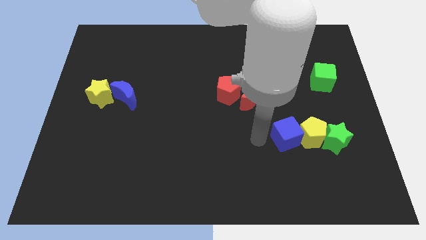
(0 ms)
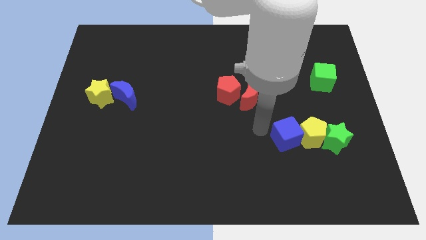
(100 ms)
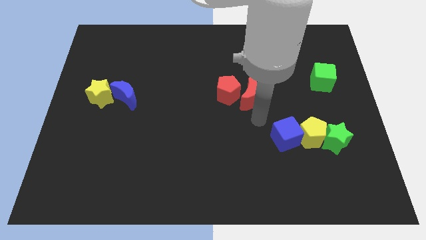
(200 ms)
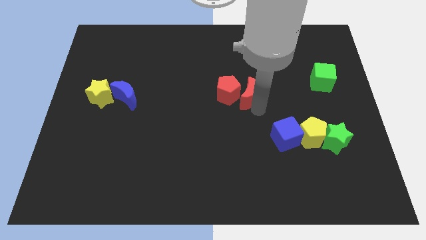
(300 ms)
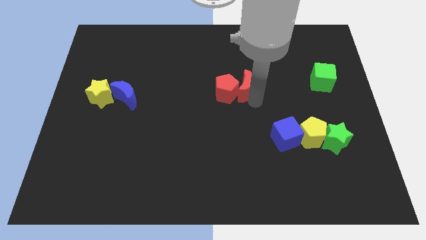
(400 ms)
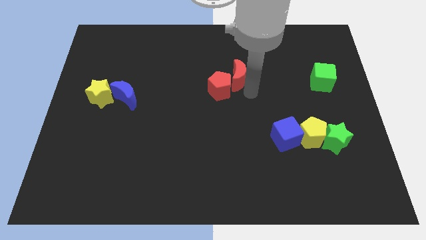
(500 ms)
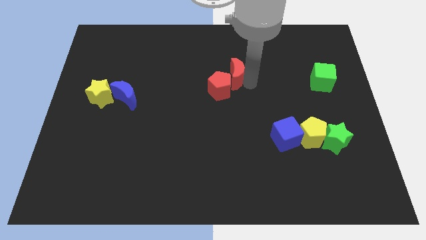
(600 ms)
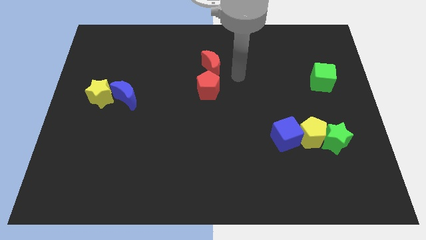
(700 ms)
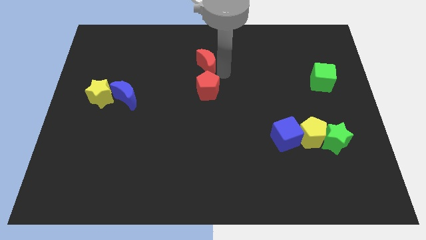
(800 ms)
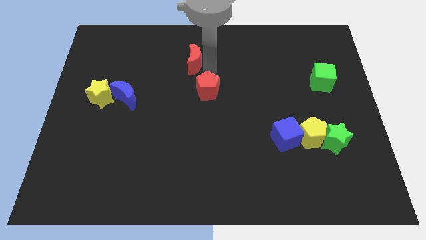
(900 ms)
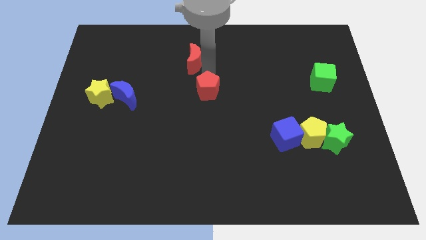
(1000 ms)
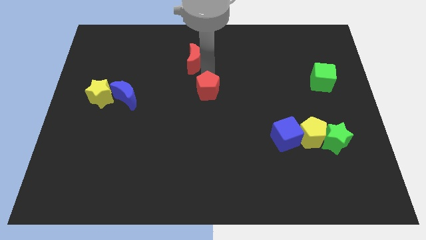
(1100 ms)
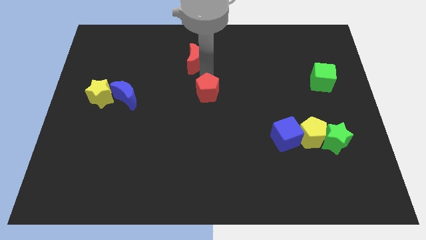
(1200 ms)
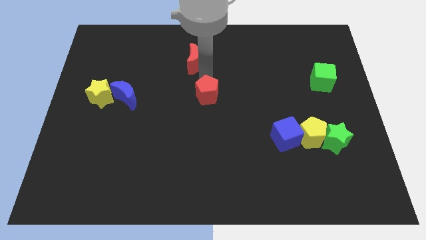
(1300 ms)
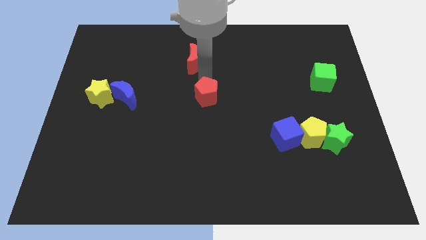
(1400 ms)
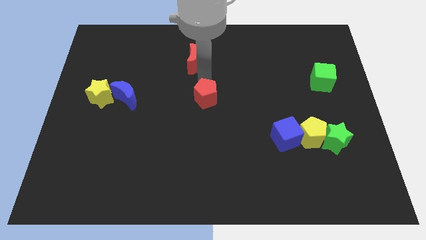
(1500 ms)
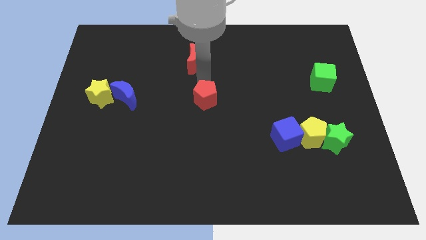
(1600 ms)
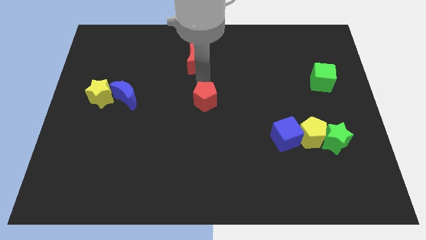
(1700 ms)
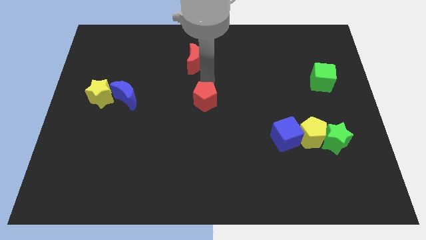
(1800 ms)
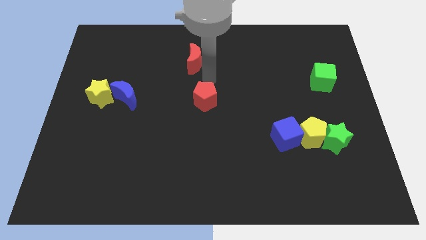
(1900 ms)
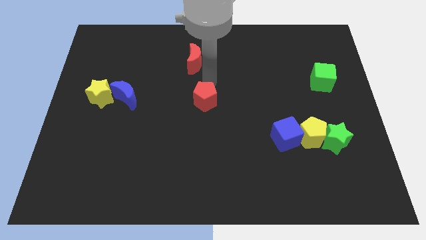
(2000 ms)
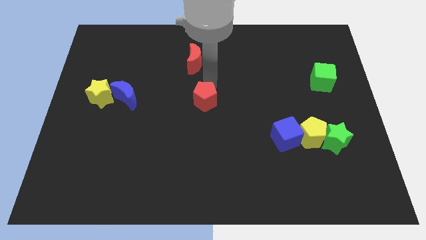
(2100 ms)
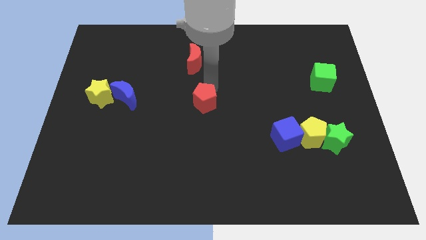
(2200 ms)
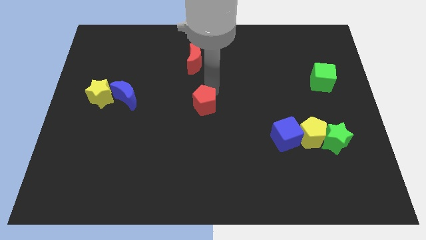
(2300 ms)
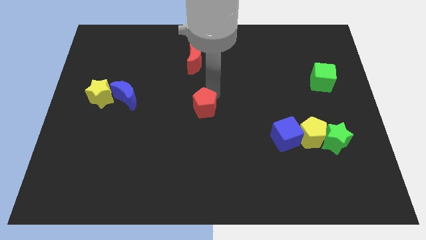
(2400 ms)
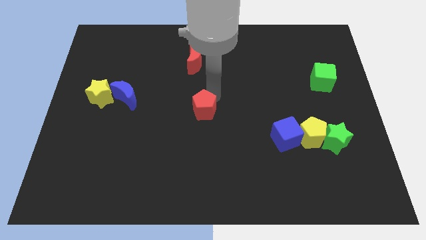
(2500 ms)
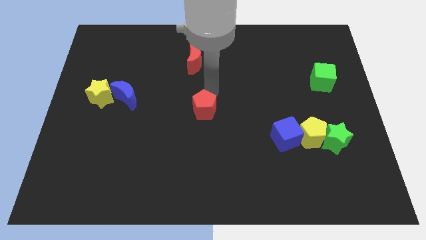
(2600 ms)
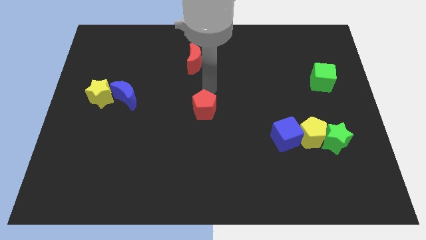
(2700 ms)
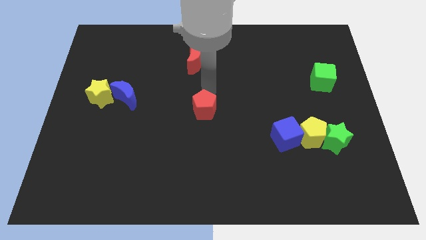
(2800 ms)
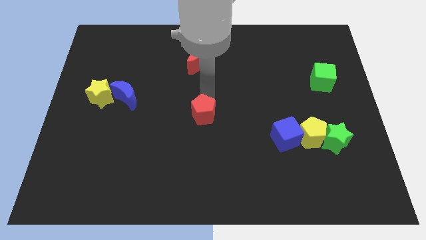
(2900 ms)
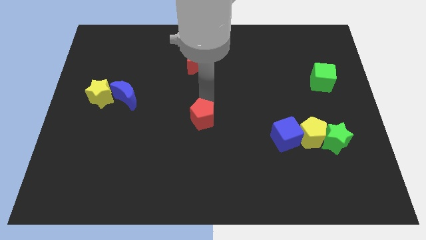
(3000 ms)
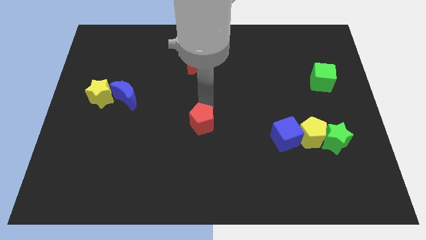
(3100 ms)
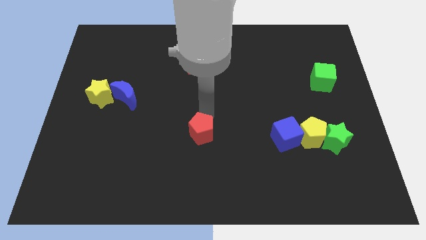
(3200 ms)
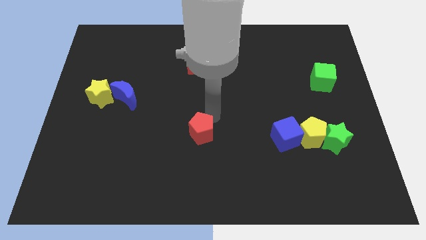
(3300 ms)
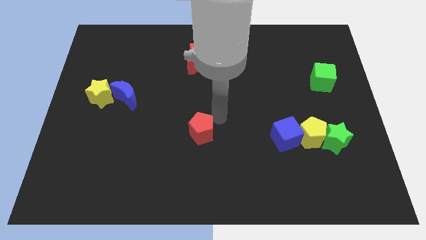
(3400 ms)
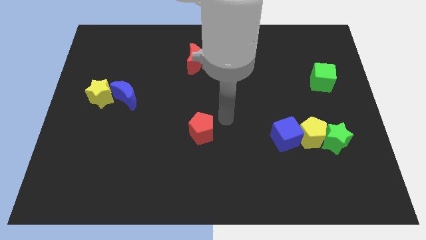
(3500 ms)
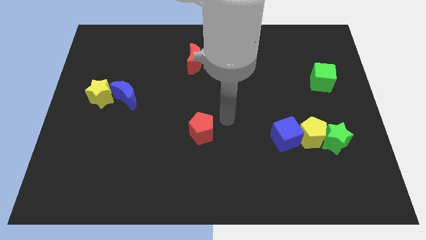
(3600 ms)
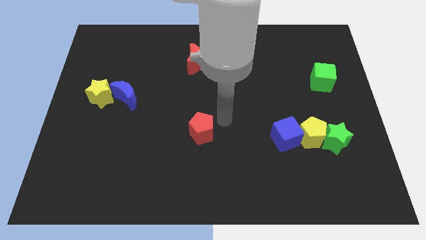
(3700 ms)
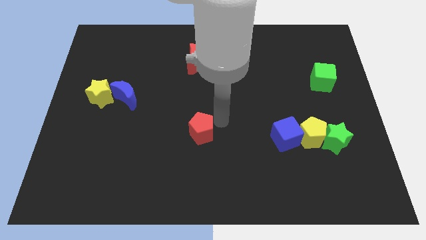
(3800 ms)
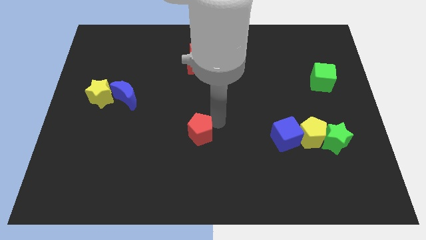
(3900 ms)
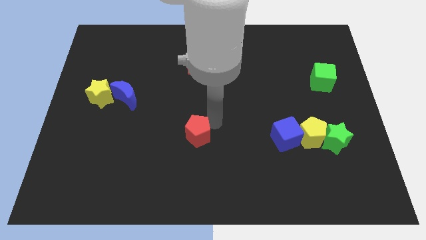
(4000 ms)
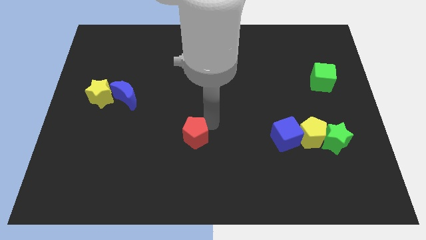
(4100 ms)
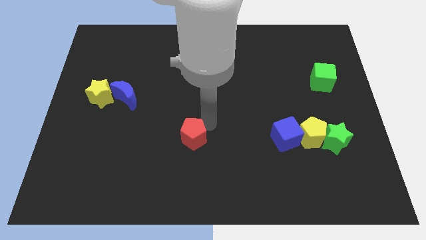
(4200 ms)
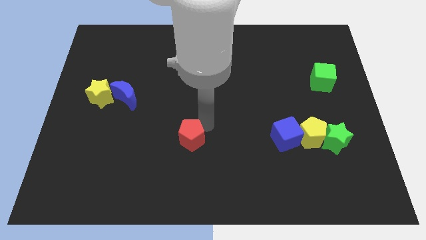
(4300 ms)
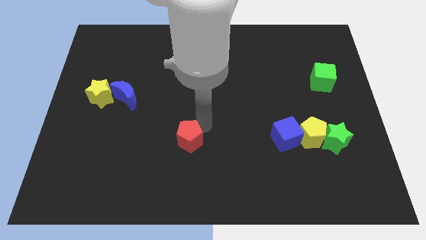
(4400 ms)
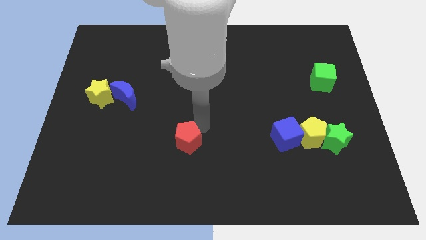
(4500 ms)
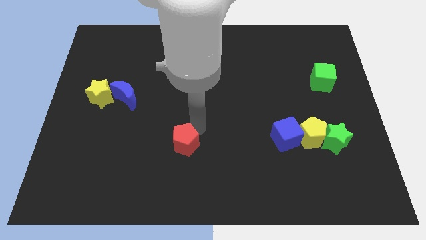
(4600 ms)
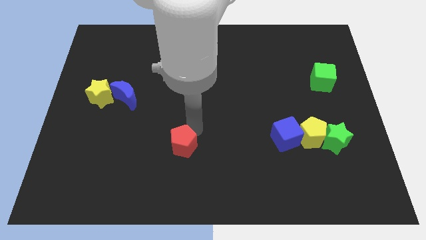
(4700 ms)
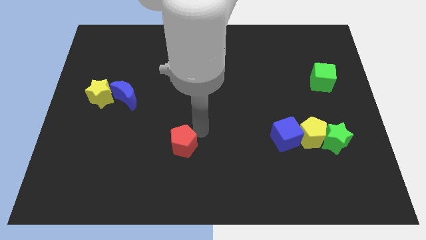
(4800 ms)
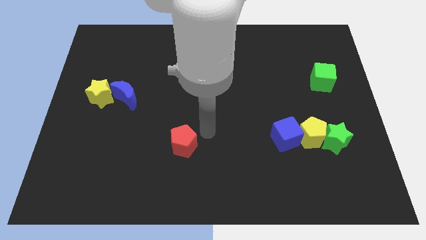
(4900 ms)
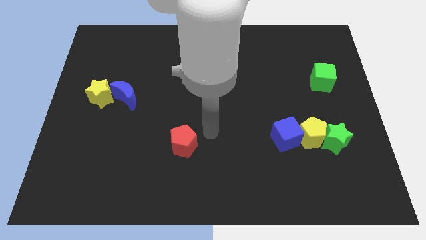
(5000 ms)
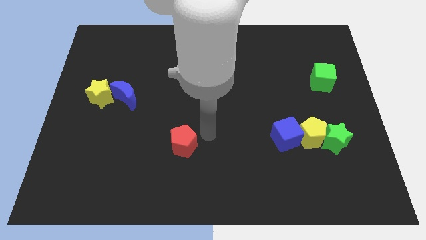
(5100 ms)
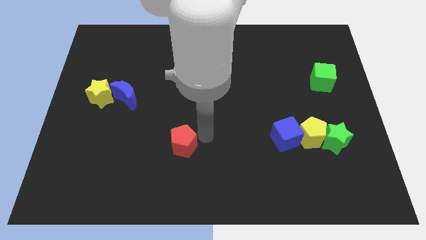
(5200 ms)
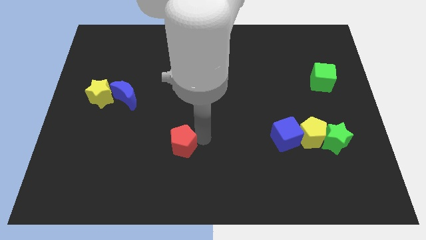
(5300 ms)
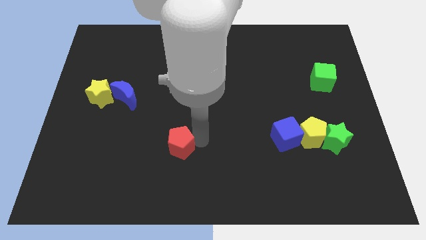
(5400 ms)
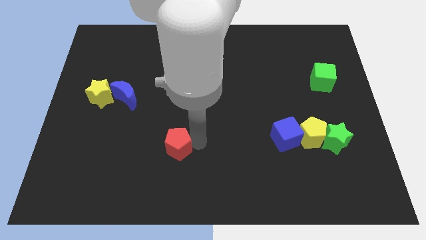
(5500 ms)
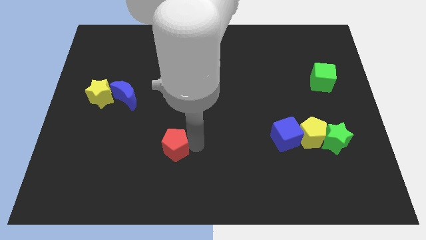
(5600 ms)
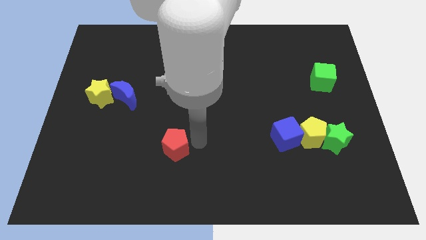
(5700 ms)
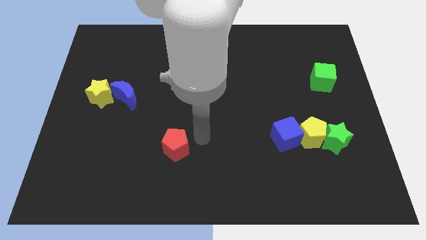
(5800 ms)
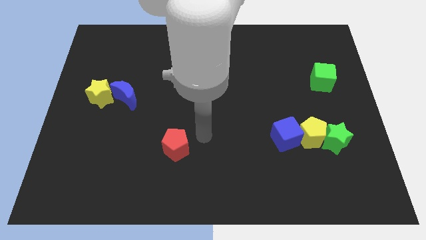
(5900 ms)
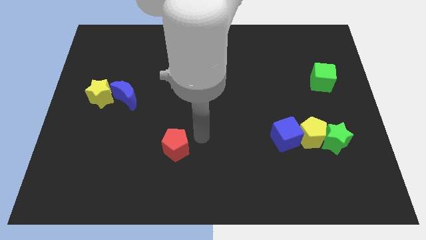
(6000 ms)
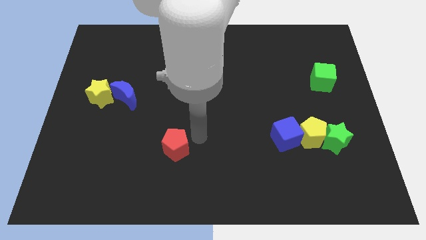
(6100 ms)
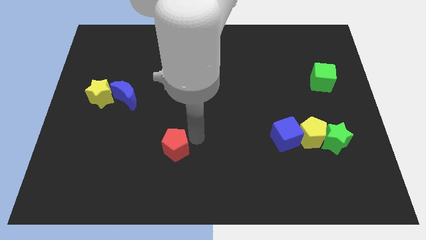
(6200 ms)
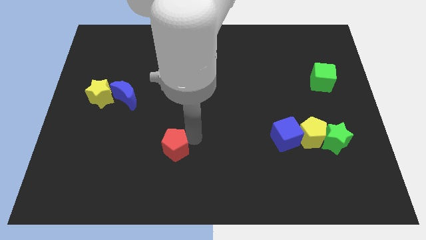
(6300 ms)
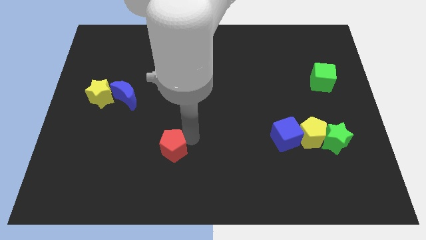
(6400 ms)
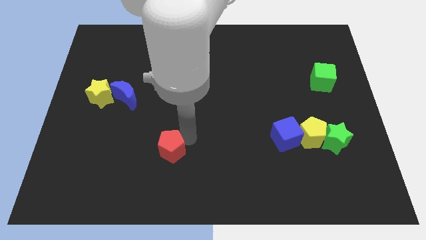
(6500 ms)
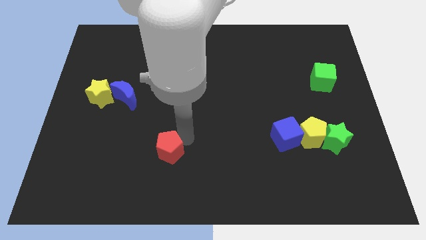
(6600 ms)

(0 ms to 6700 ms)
push the red pentagon down and then left

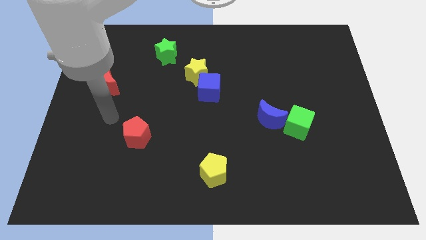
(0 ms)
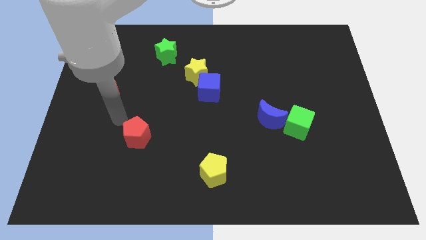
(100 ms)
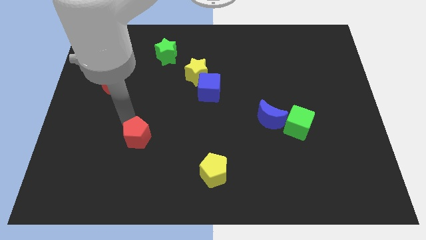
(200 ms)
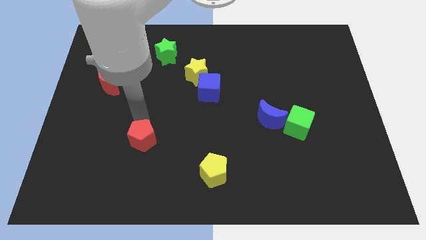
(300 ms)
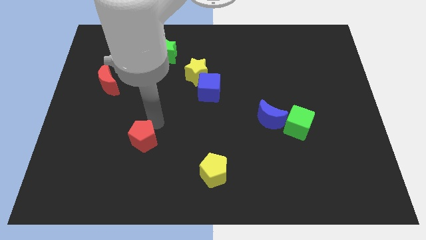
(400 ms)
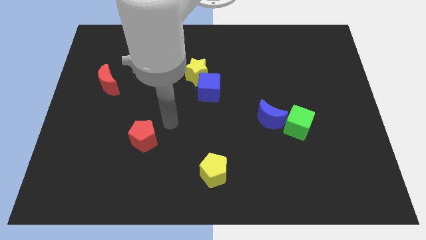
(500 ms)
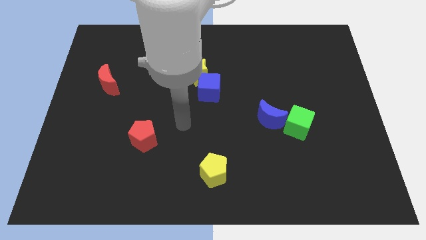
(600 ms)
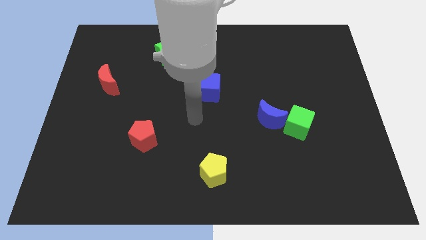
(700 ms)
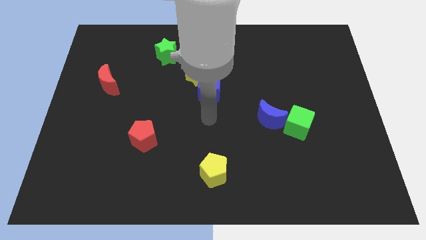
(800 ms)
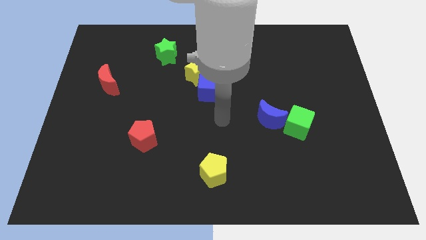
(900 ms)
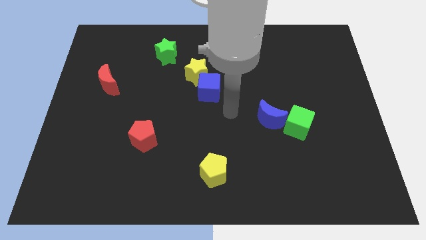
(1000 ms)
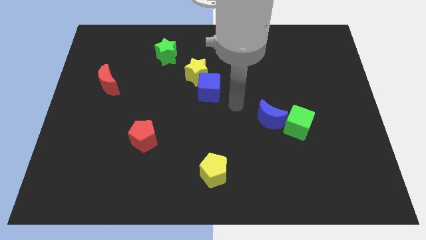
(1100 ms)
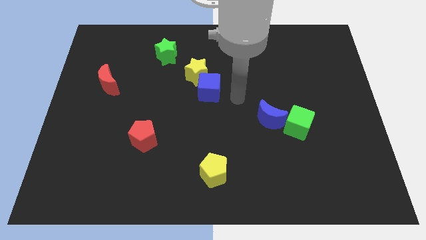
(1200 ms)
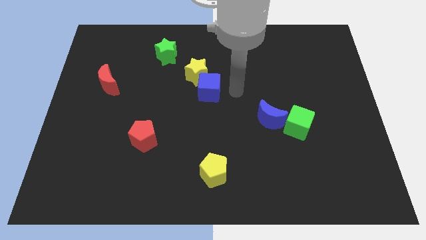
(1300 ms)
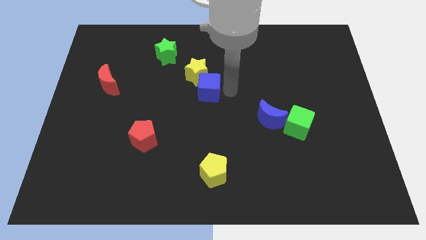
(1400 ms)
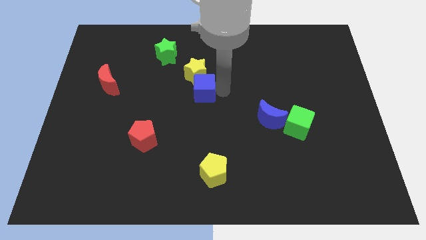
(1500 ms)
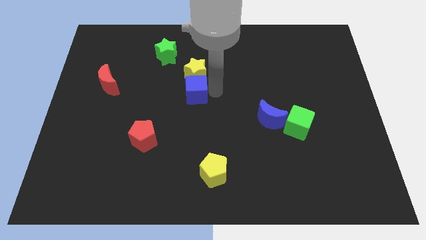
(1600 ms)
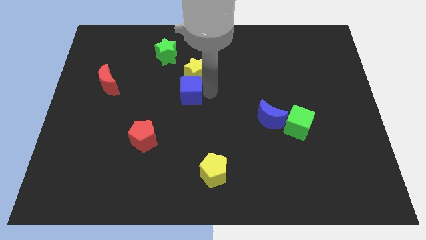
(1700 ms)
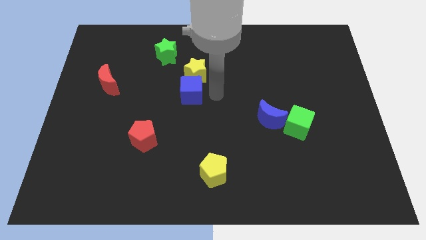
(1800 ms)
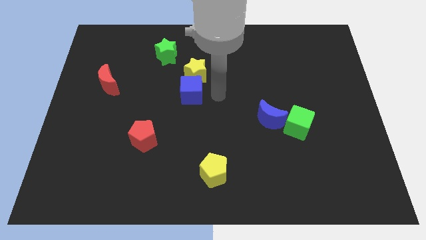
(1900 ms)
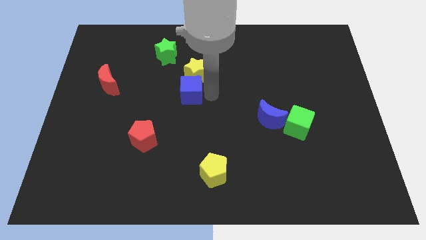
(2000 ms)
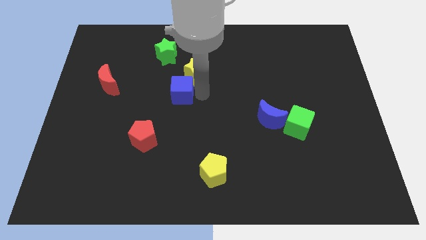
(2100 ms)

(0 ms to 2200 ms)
slide the blue cube left a bit
